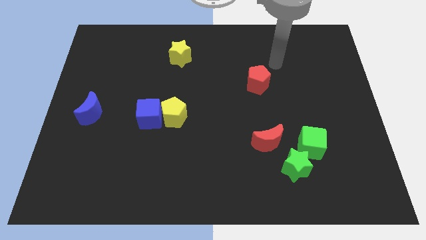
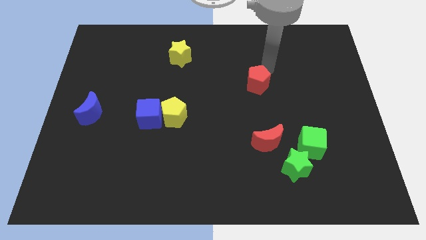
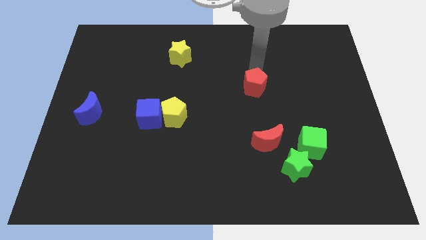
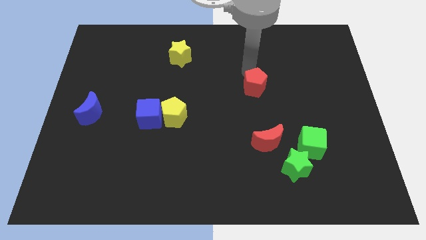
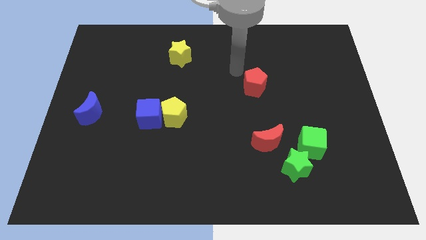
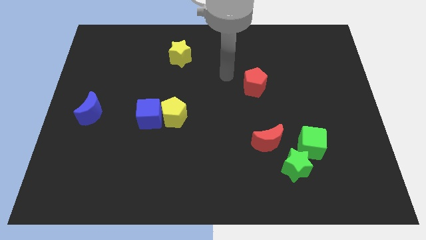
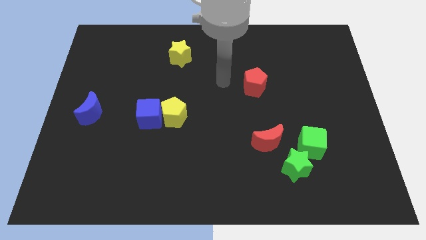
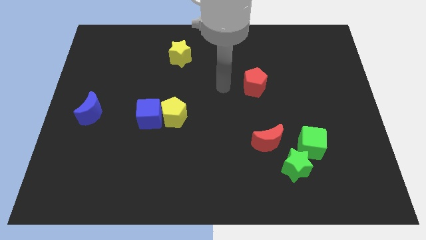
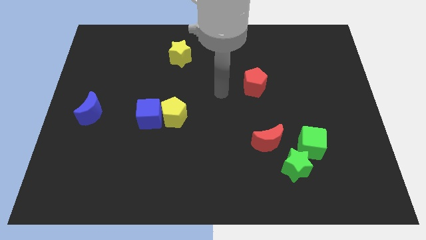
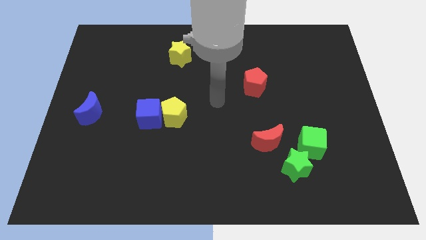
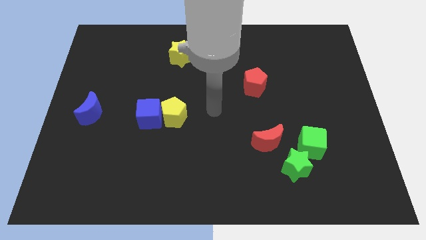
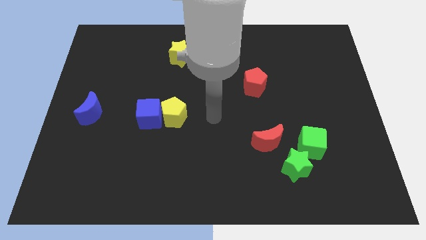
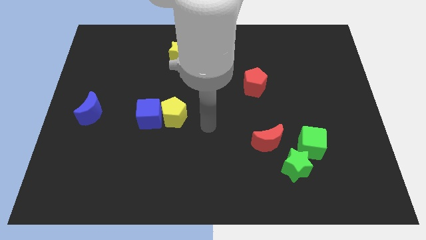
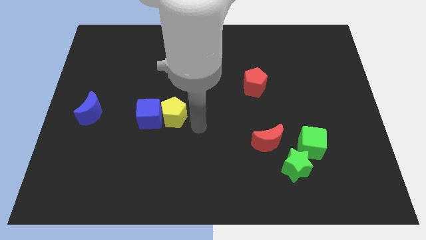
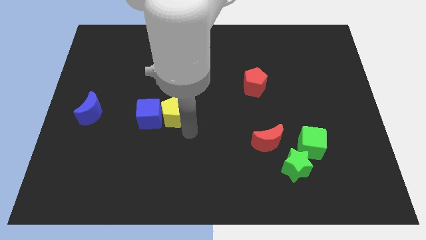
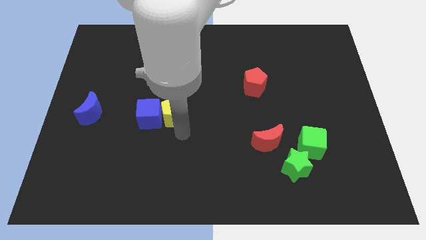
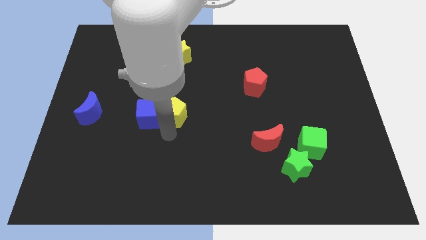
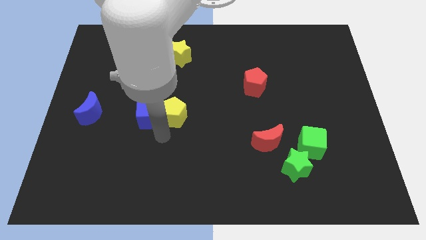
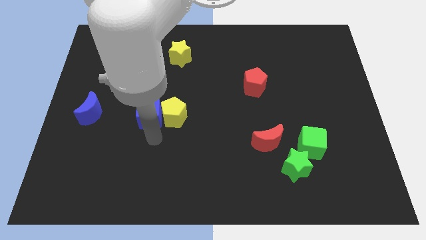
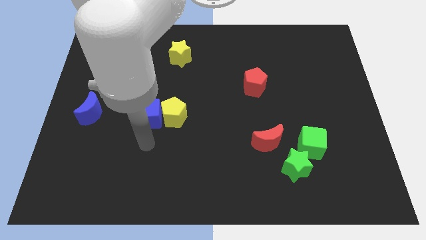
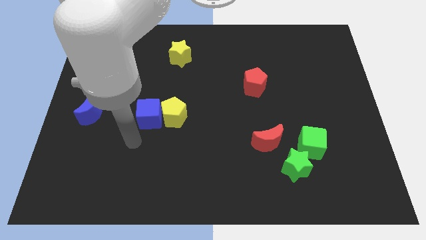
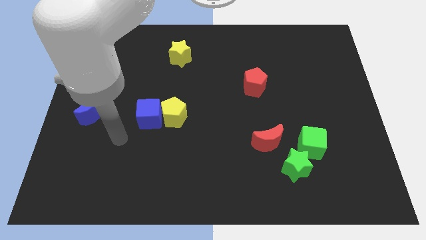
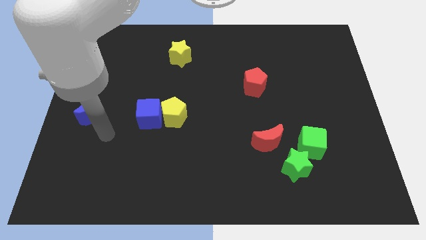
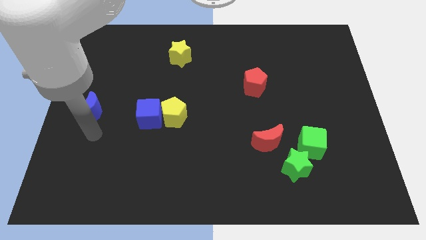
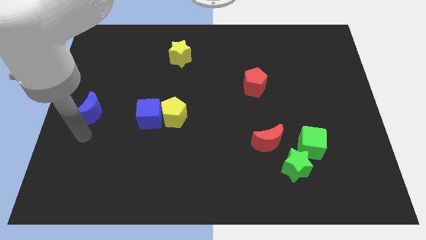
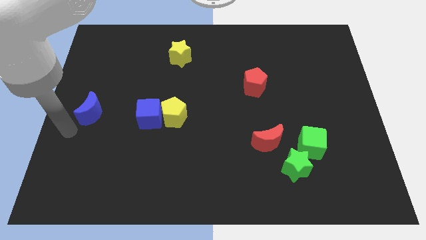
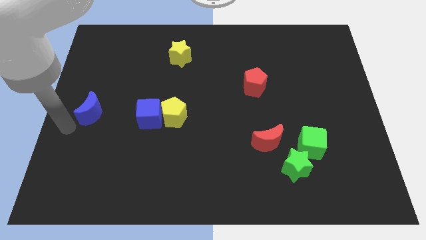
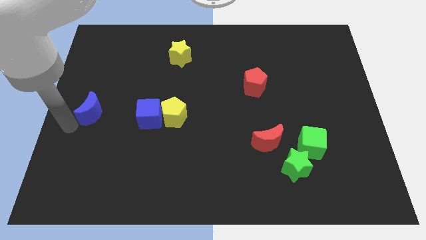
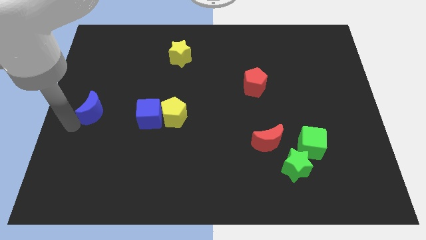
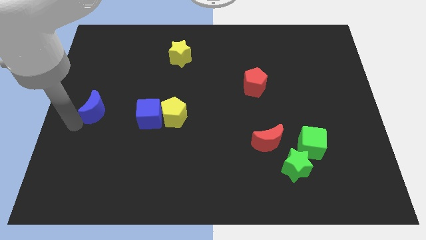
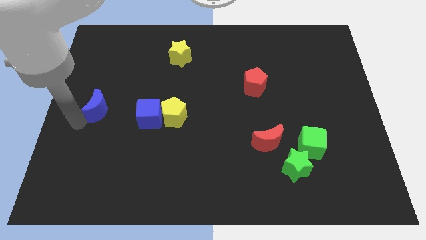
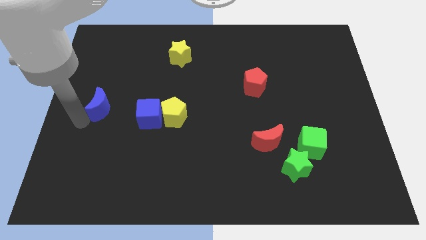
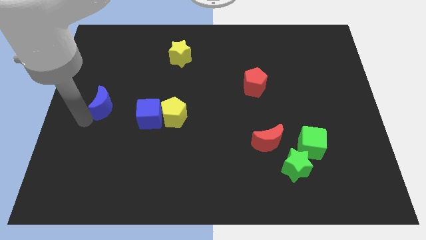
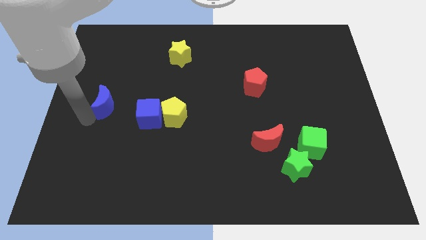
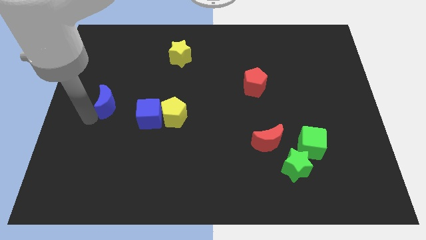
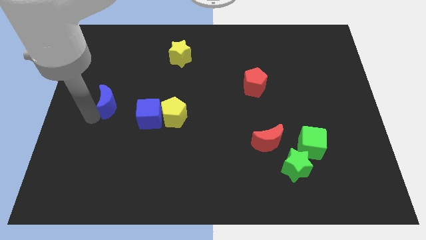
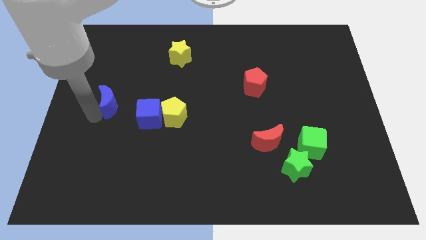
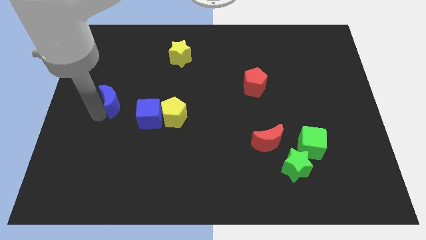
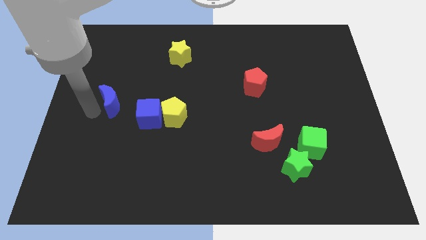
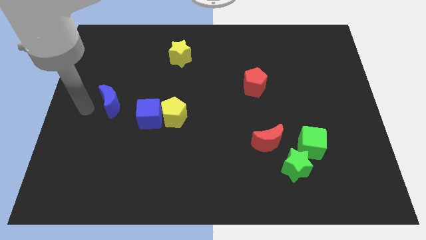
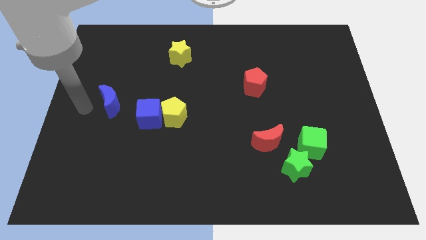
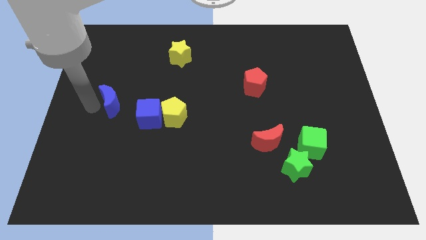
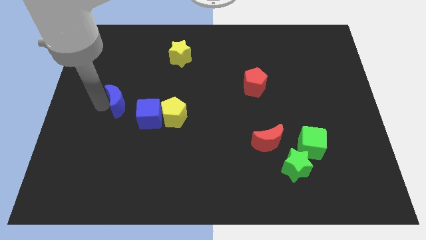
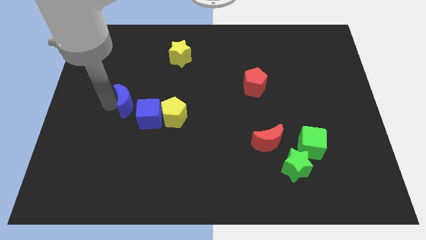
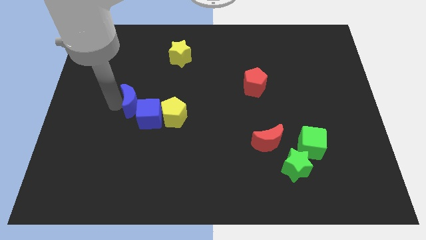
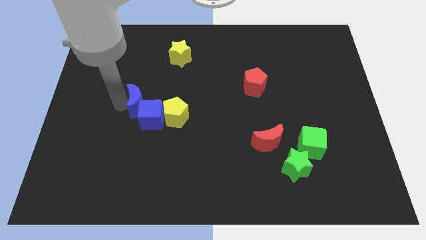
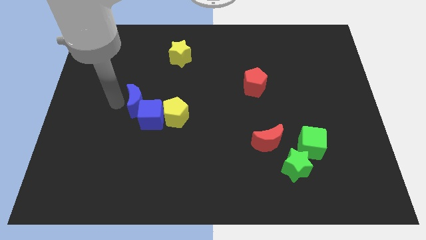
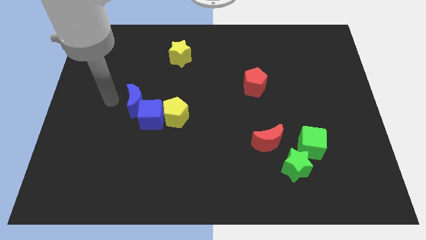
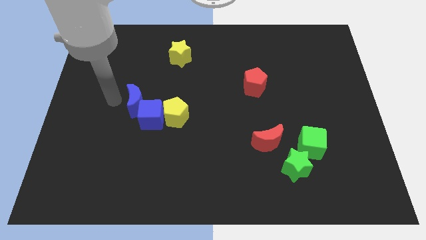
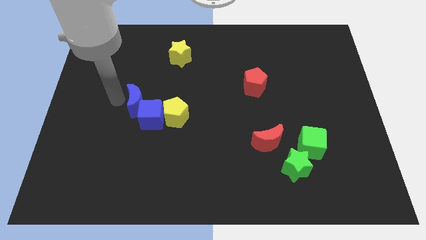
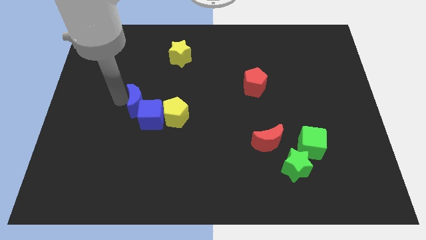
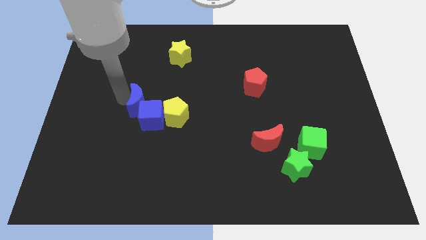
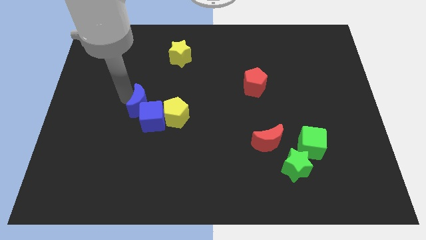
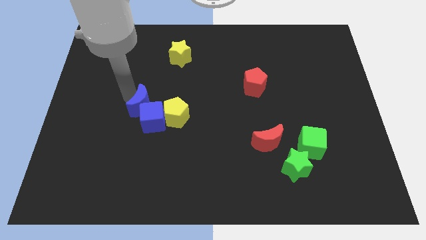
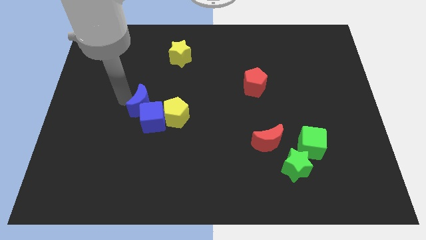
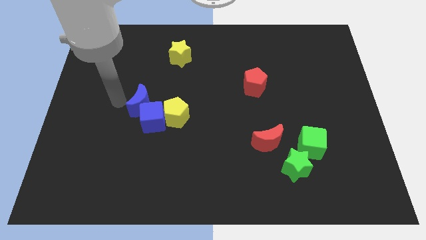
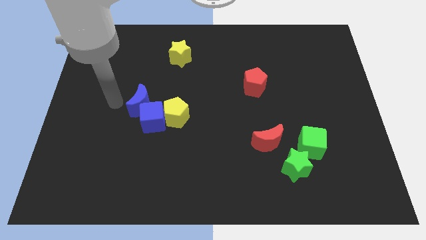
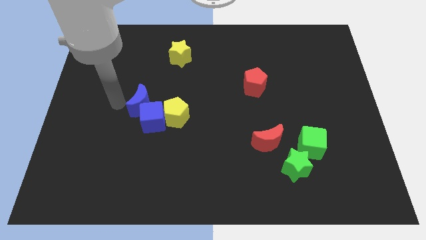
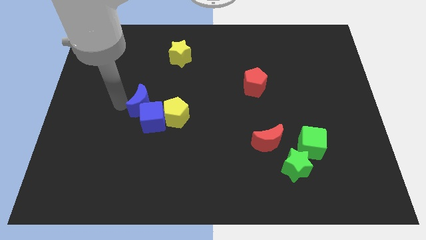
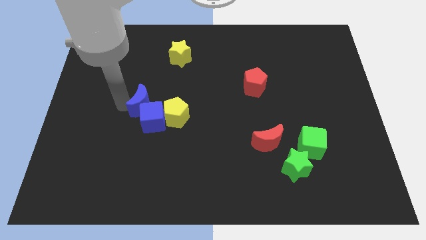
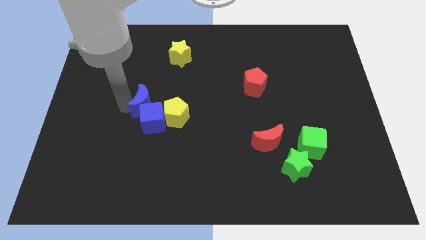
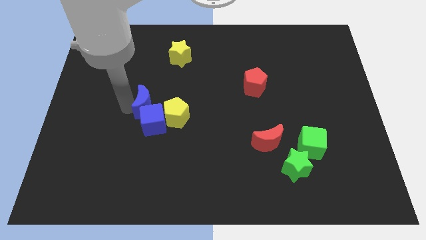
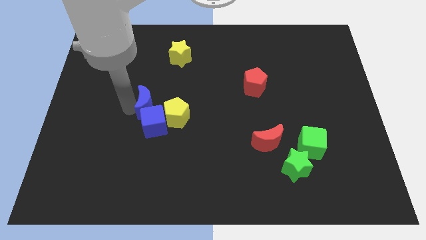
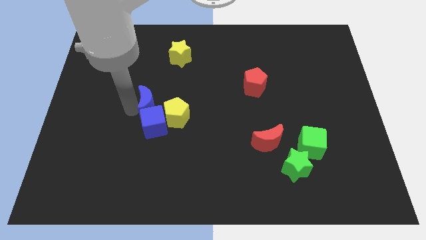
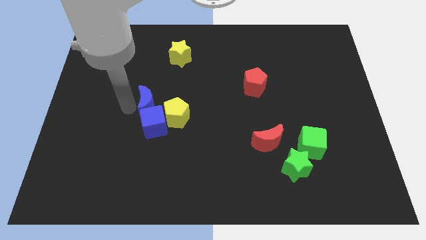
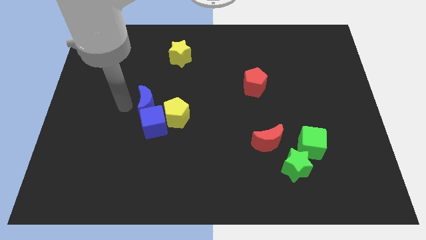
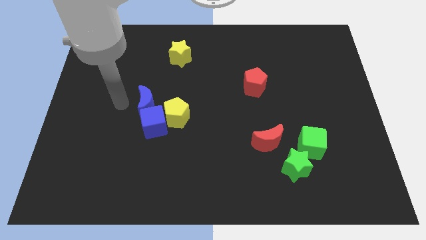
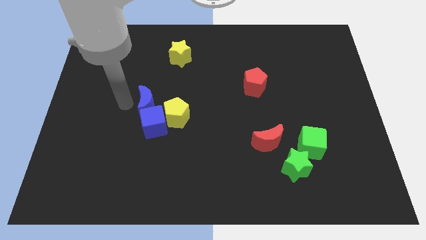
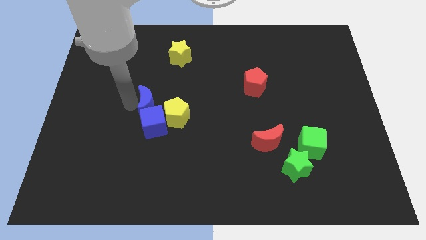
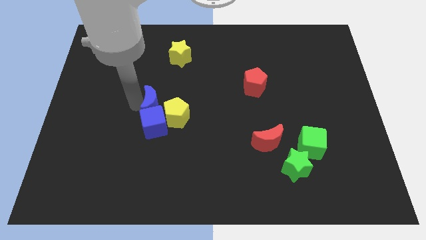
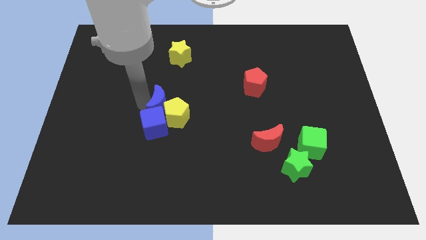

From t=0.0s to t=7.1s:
slide the blue moon towards the yellow pentagon
